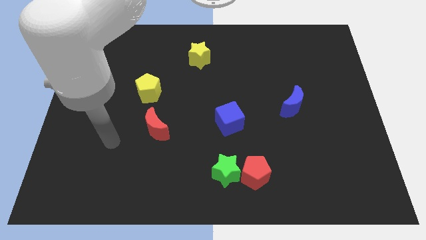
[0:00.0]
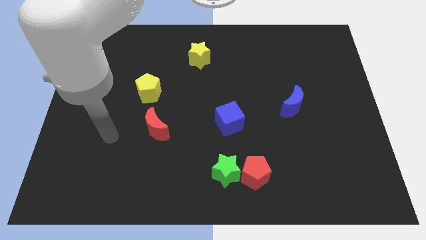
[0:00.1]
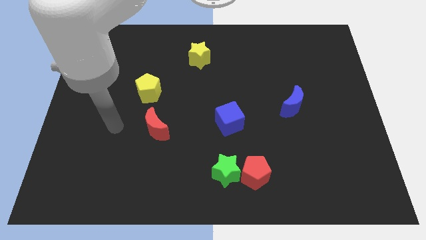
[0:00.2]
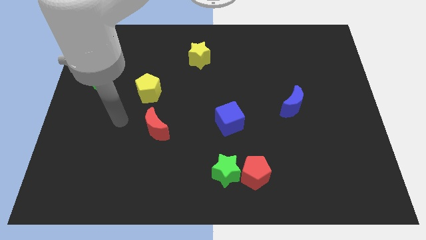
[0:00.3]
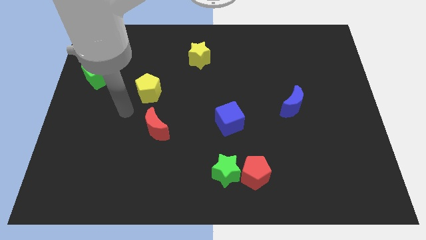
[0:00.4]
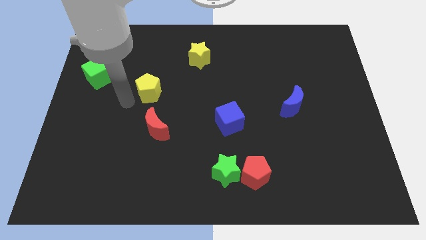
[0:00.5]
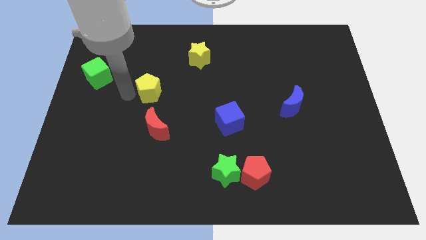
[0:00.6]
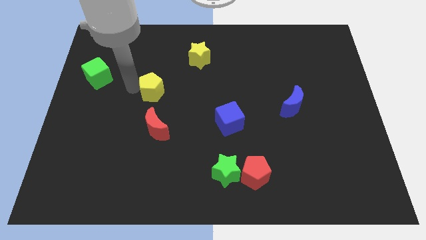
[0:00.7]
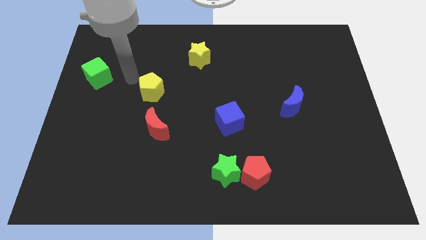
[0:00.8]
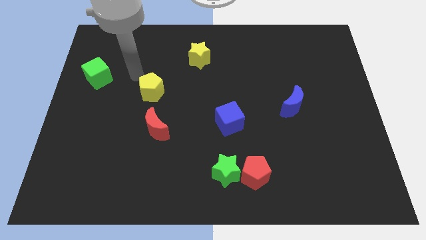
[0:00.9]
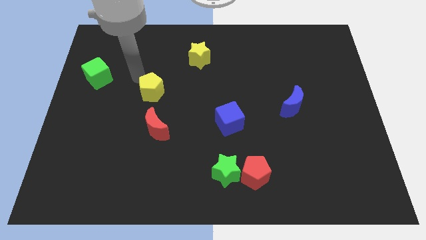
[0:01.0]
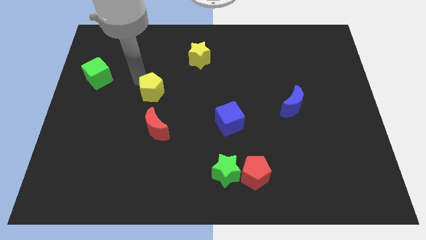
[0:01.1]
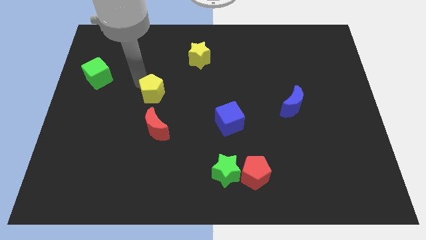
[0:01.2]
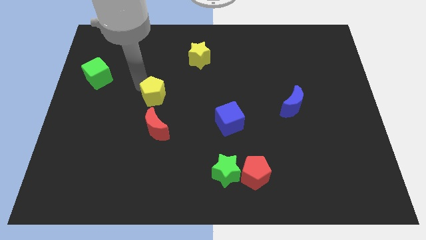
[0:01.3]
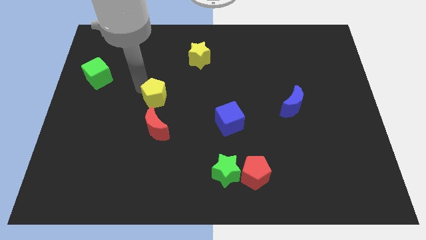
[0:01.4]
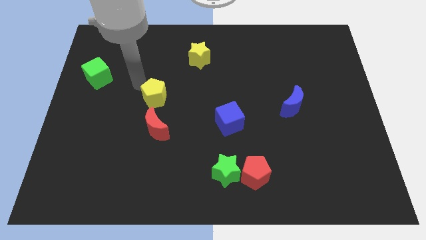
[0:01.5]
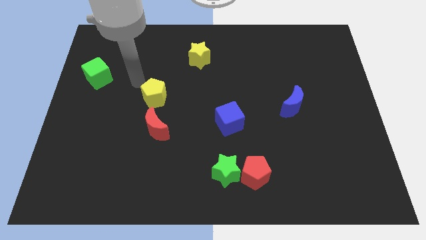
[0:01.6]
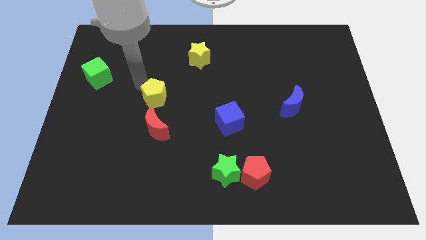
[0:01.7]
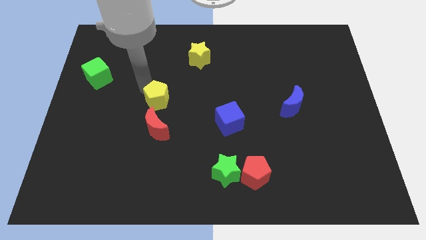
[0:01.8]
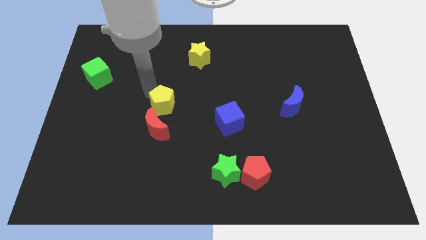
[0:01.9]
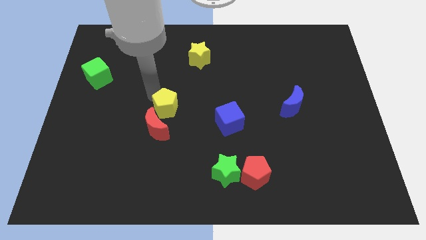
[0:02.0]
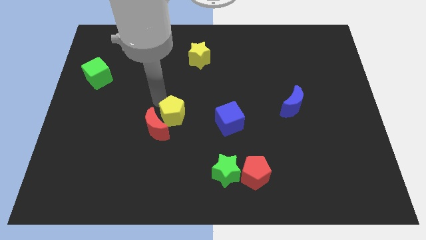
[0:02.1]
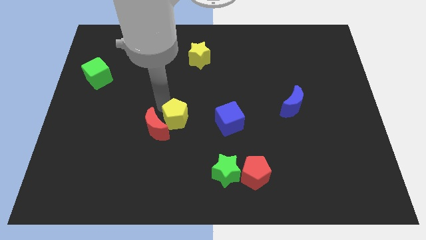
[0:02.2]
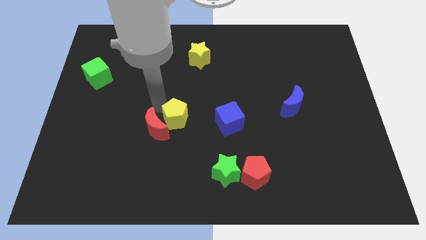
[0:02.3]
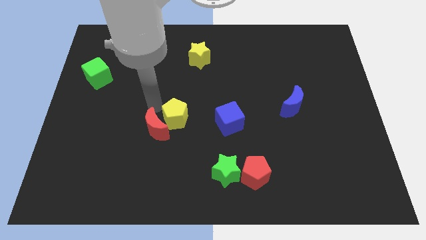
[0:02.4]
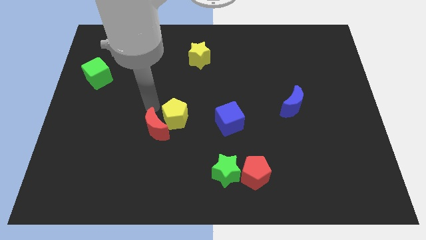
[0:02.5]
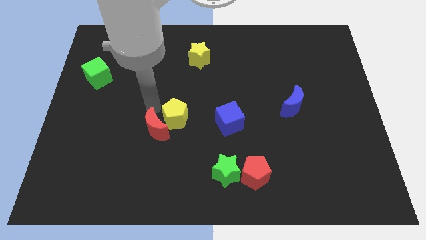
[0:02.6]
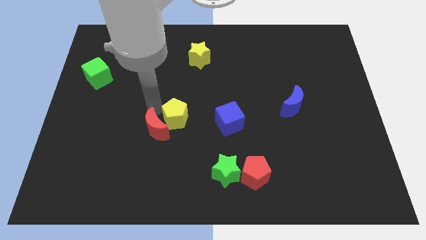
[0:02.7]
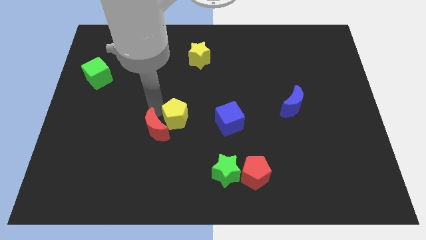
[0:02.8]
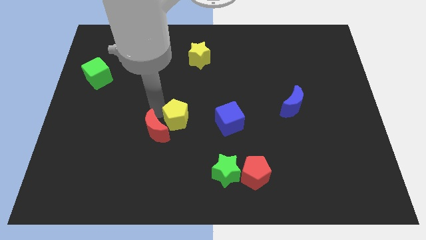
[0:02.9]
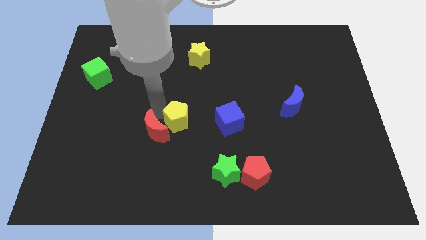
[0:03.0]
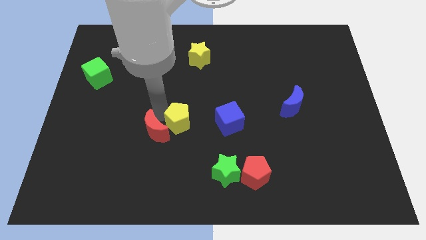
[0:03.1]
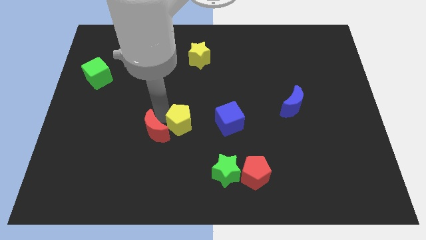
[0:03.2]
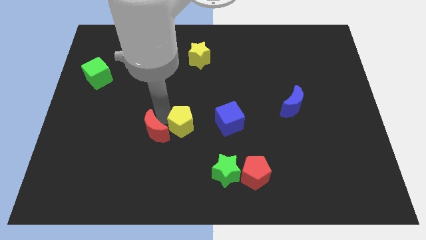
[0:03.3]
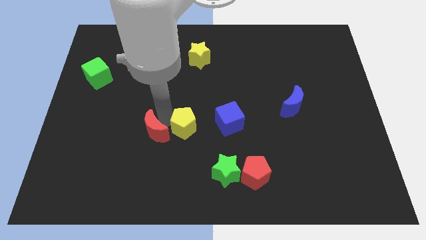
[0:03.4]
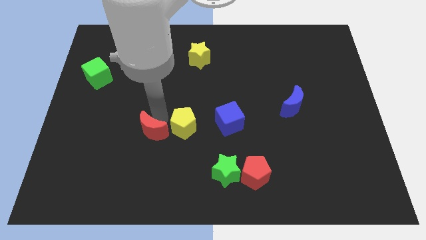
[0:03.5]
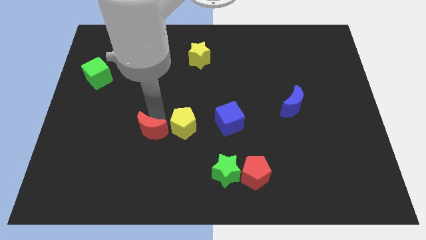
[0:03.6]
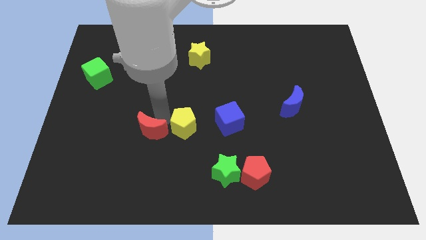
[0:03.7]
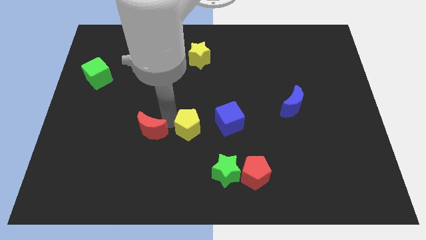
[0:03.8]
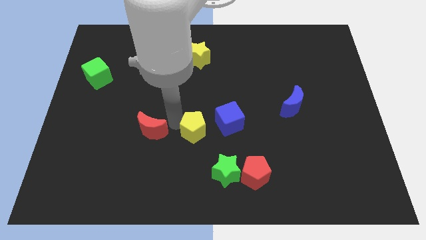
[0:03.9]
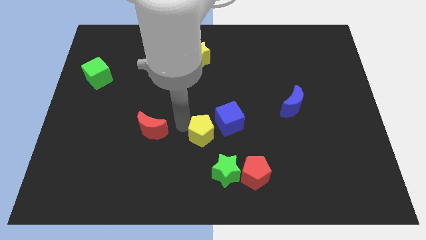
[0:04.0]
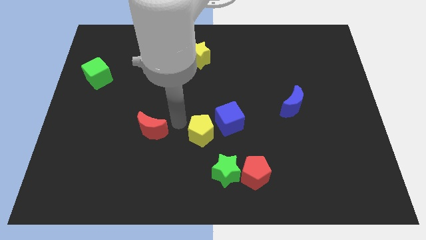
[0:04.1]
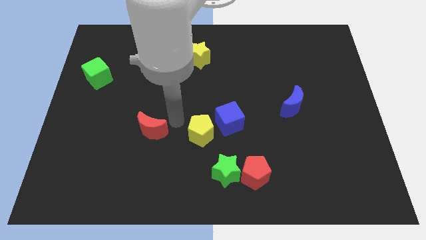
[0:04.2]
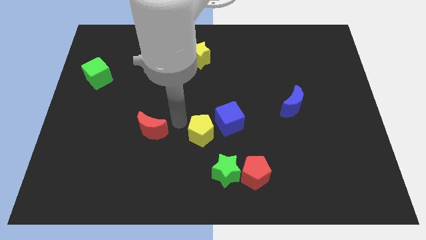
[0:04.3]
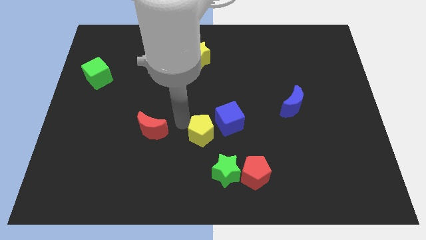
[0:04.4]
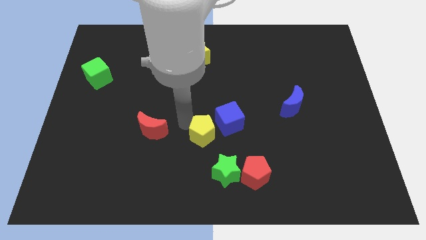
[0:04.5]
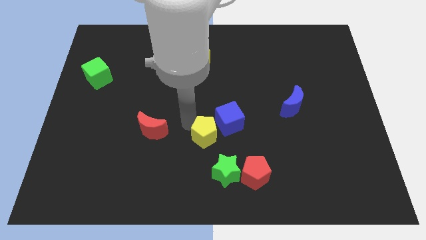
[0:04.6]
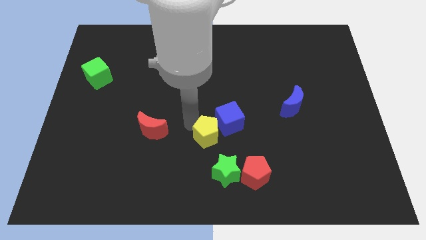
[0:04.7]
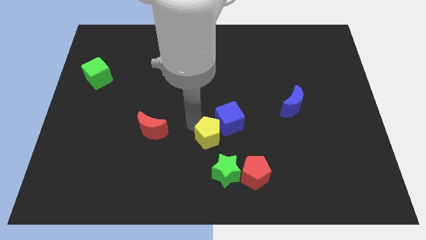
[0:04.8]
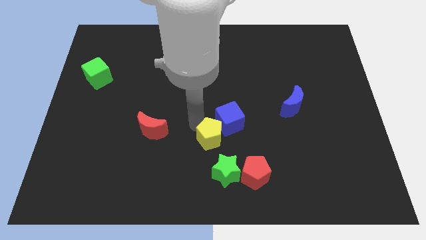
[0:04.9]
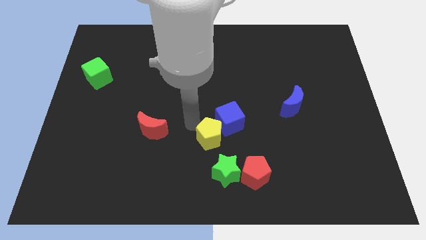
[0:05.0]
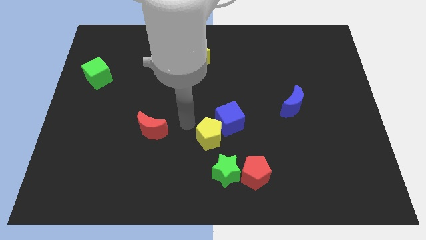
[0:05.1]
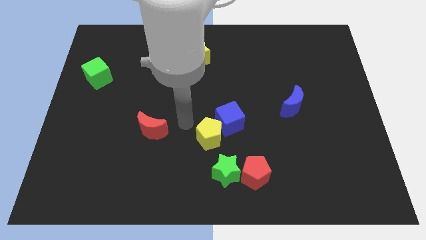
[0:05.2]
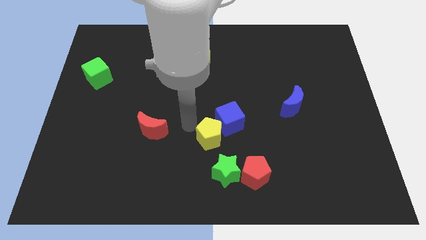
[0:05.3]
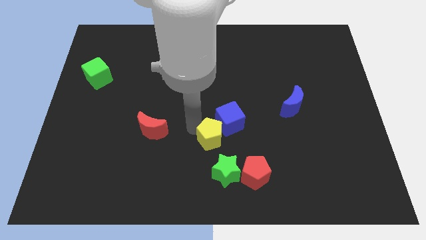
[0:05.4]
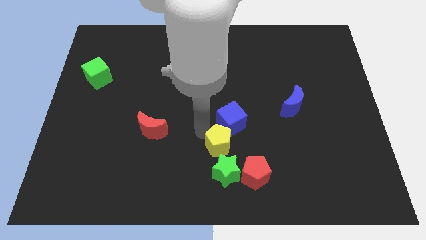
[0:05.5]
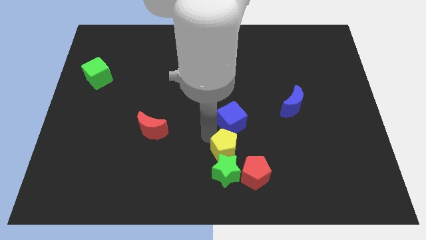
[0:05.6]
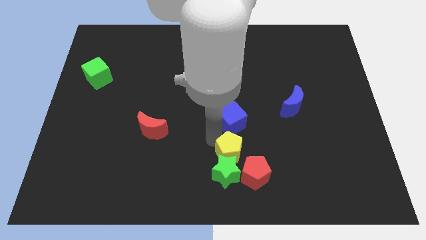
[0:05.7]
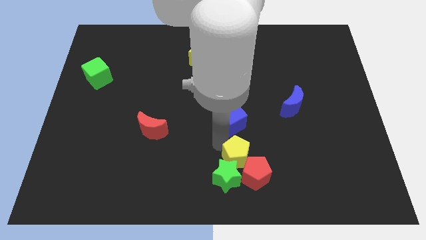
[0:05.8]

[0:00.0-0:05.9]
move the yellow pentagon towards the red pentagon
